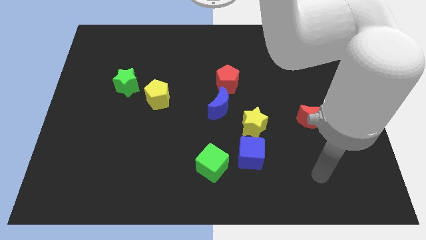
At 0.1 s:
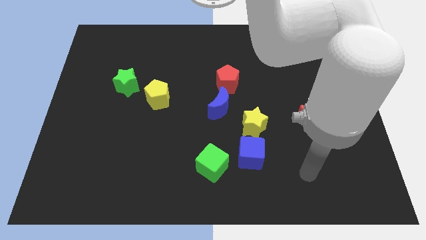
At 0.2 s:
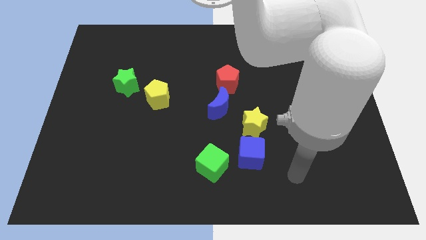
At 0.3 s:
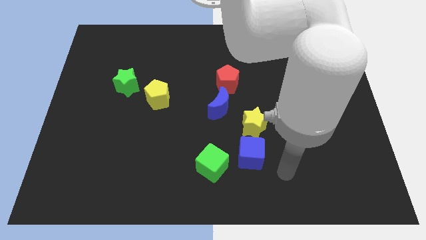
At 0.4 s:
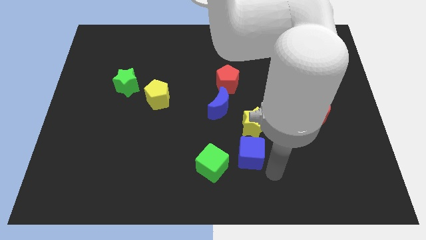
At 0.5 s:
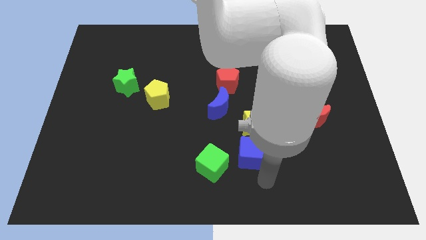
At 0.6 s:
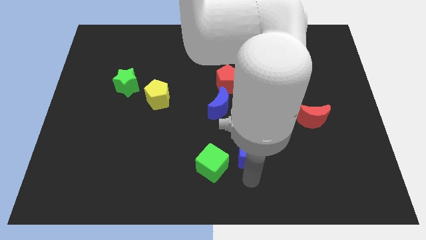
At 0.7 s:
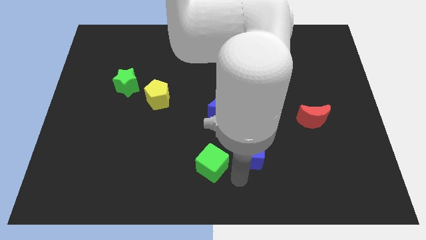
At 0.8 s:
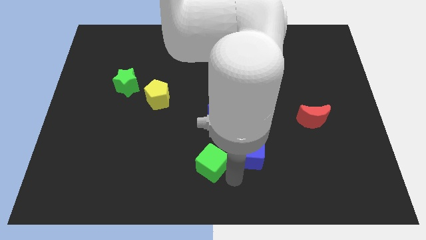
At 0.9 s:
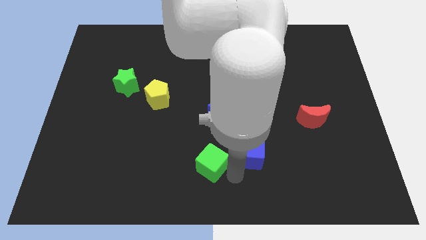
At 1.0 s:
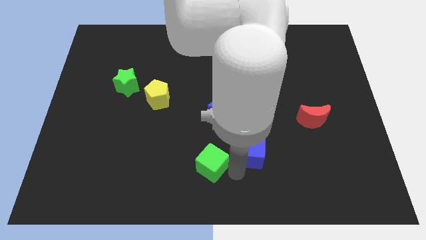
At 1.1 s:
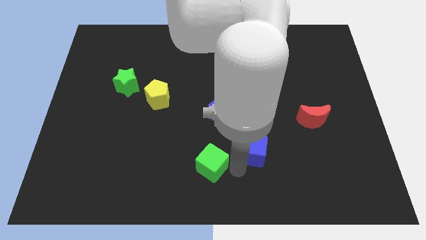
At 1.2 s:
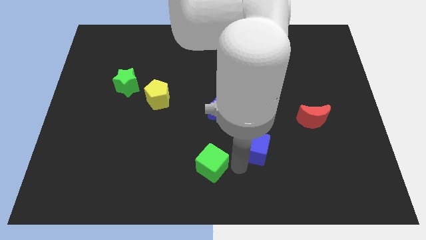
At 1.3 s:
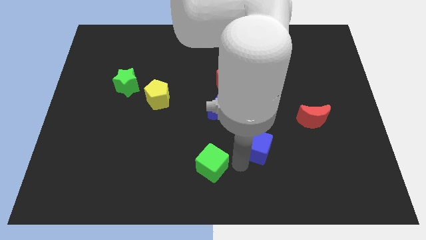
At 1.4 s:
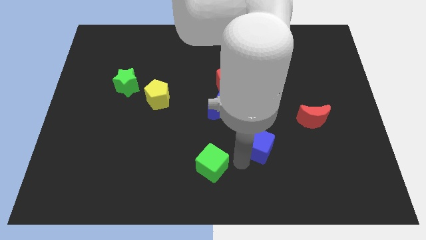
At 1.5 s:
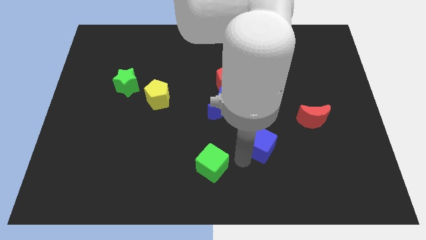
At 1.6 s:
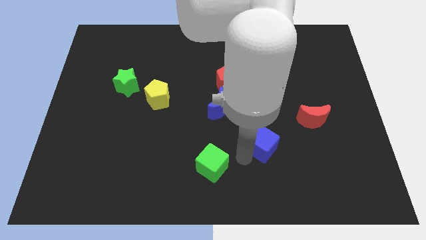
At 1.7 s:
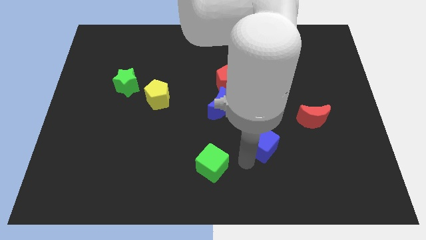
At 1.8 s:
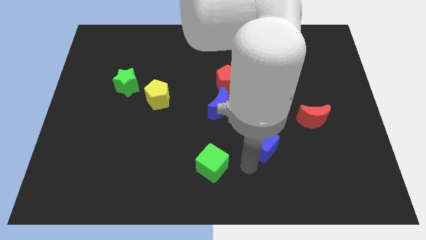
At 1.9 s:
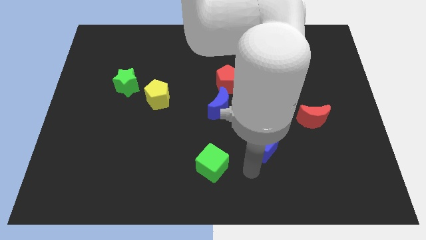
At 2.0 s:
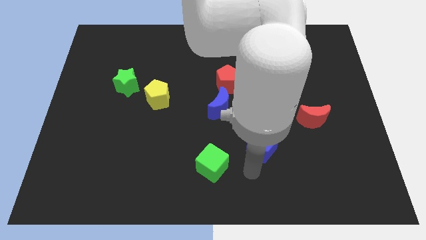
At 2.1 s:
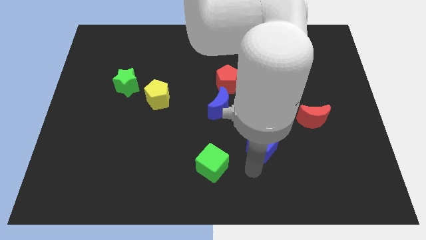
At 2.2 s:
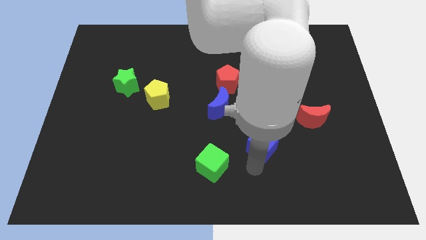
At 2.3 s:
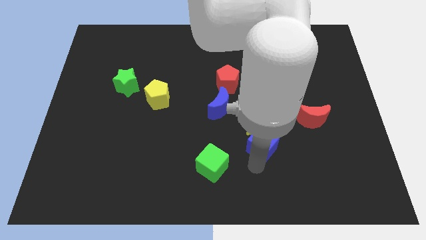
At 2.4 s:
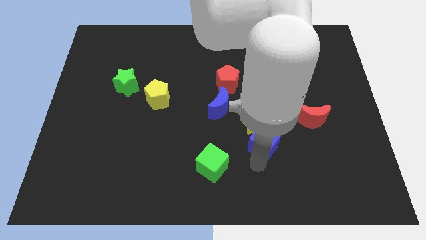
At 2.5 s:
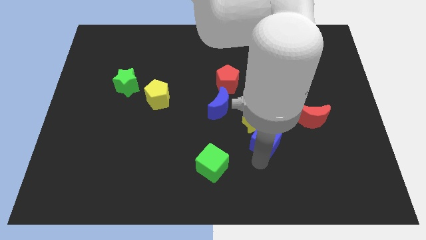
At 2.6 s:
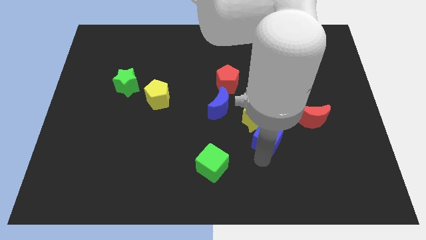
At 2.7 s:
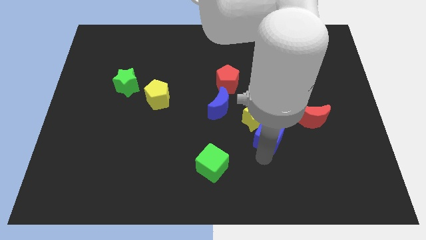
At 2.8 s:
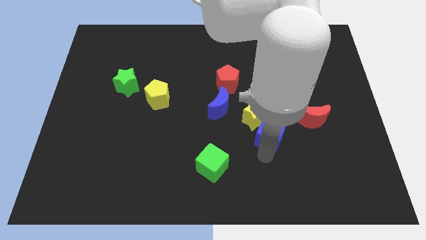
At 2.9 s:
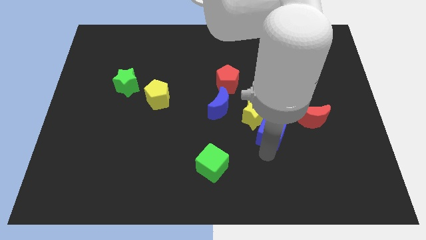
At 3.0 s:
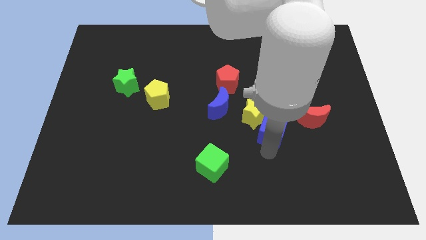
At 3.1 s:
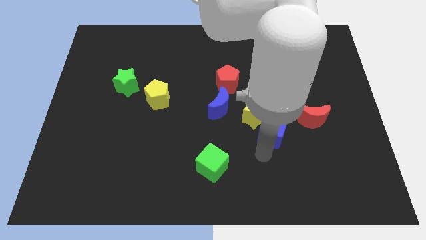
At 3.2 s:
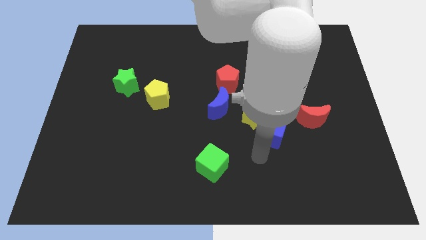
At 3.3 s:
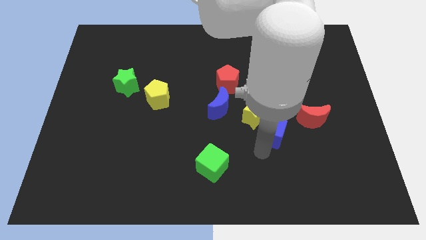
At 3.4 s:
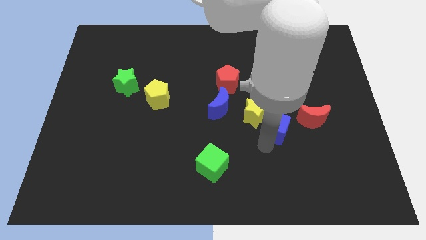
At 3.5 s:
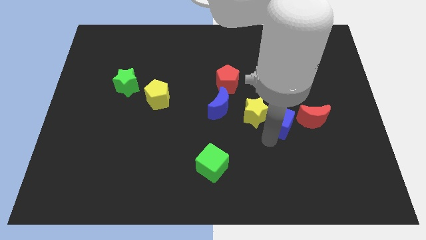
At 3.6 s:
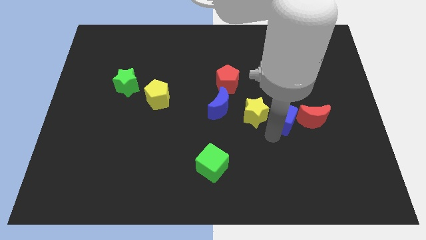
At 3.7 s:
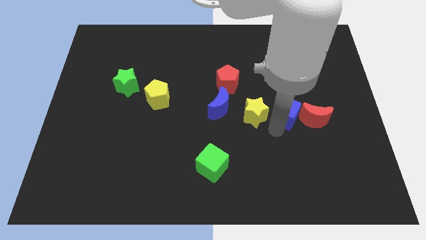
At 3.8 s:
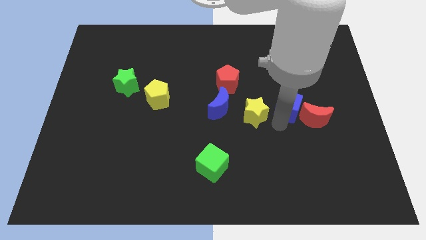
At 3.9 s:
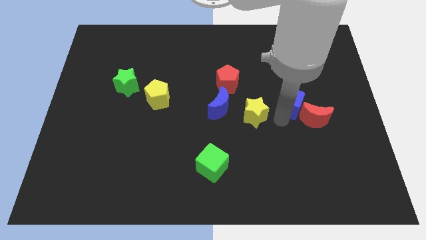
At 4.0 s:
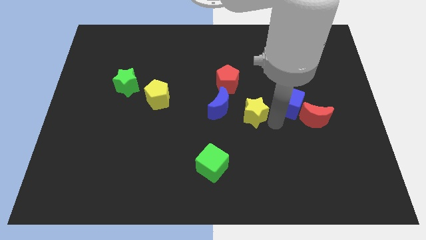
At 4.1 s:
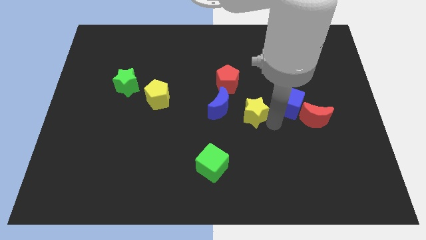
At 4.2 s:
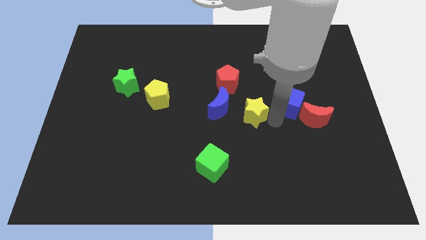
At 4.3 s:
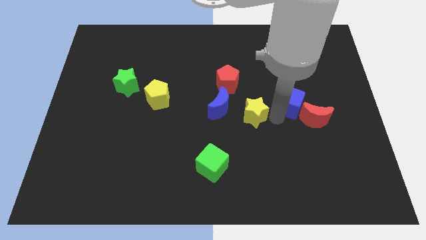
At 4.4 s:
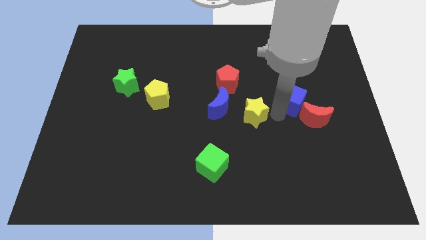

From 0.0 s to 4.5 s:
move the blue cube above the red moon

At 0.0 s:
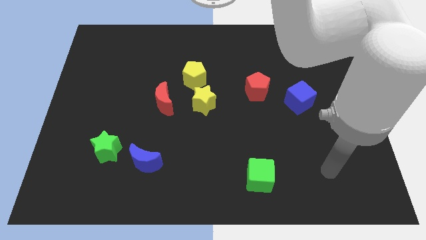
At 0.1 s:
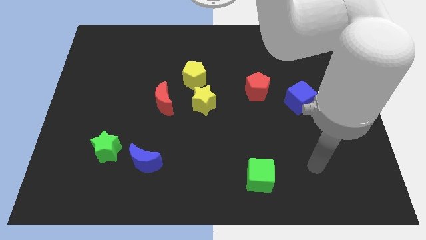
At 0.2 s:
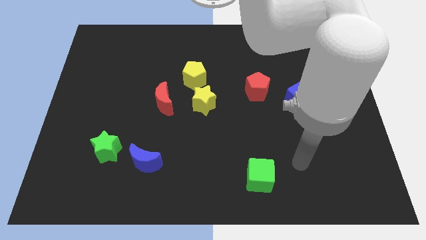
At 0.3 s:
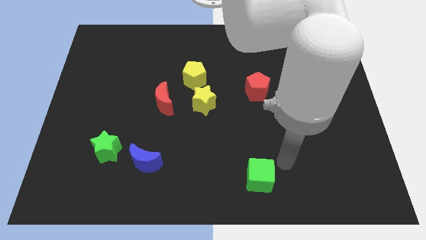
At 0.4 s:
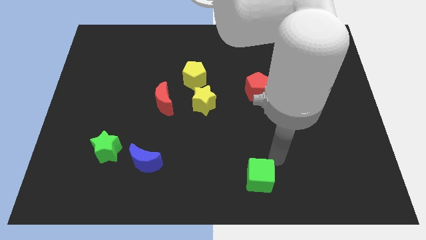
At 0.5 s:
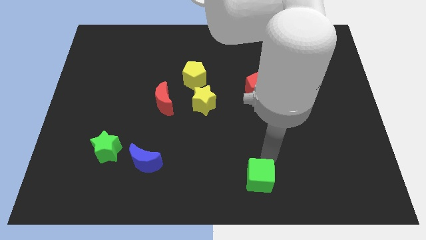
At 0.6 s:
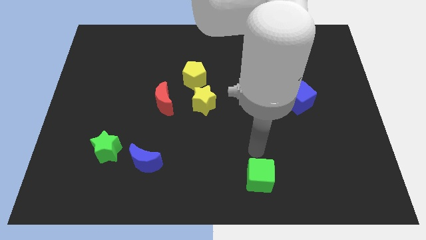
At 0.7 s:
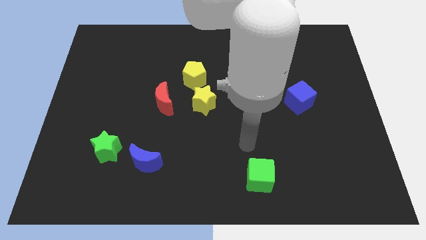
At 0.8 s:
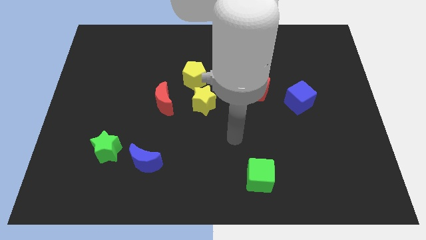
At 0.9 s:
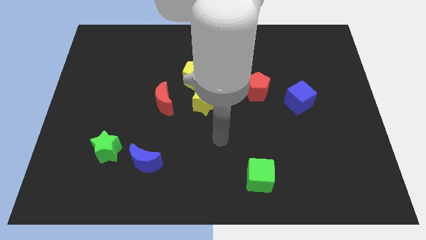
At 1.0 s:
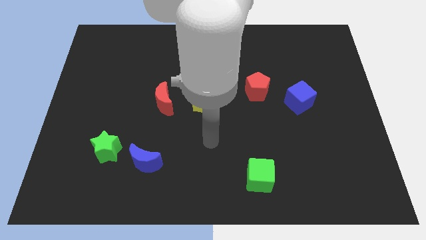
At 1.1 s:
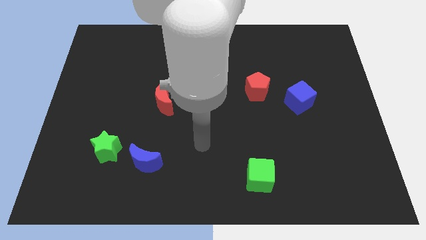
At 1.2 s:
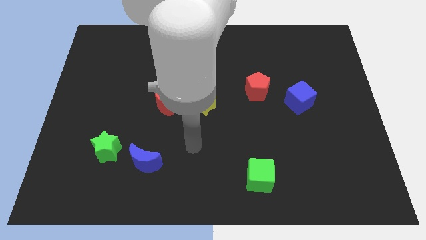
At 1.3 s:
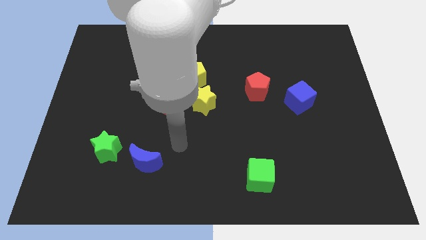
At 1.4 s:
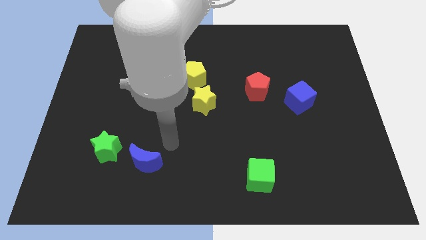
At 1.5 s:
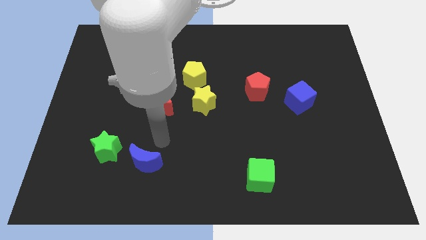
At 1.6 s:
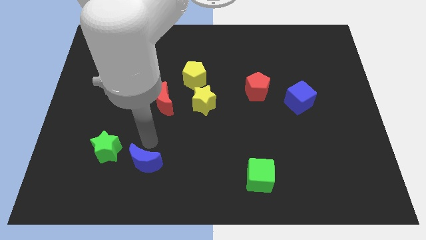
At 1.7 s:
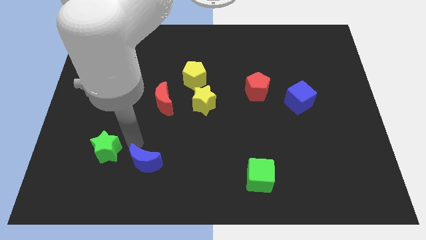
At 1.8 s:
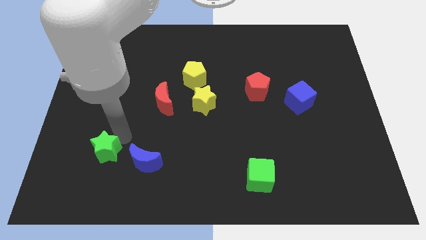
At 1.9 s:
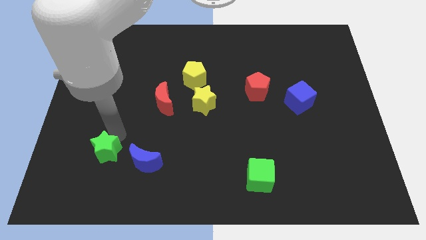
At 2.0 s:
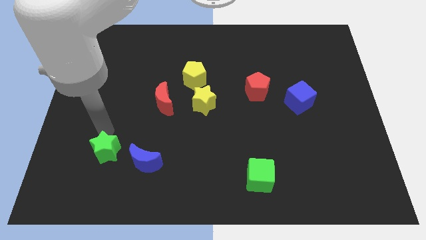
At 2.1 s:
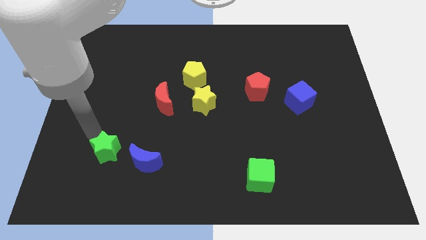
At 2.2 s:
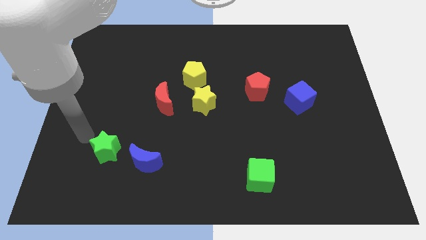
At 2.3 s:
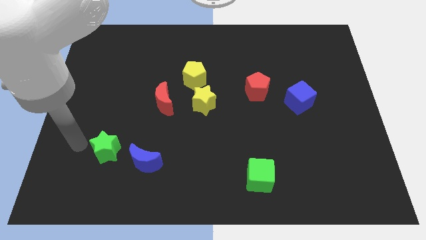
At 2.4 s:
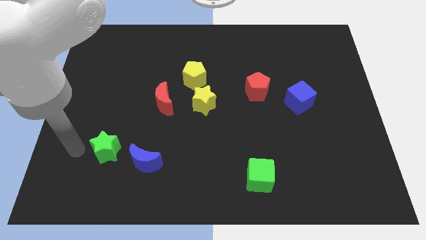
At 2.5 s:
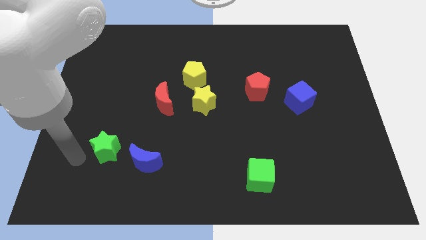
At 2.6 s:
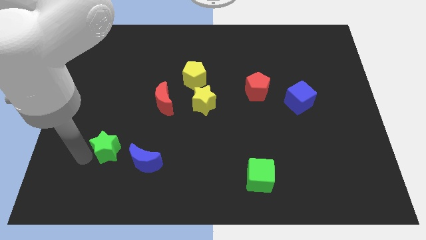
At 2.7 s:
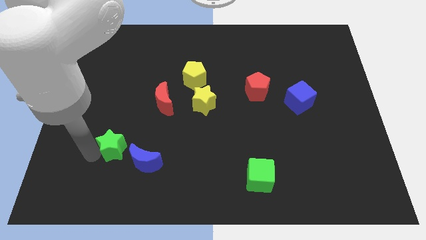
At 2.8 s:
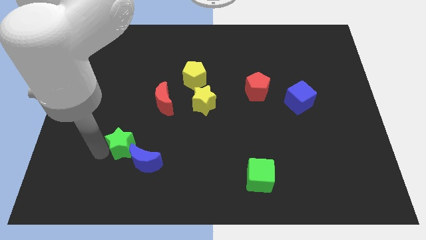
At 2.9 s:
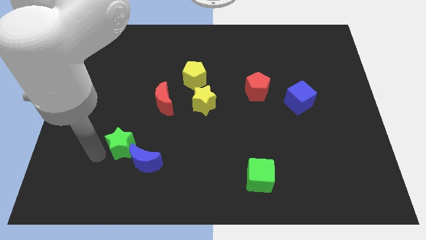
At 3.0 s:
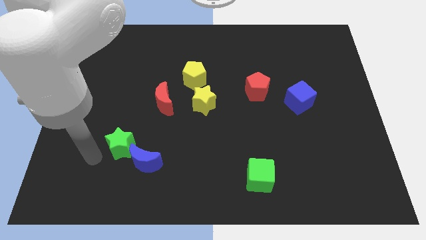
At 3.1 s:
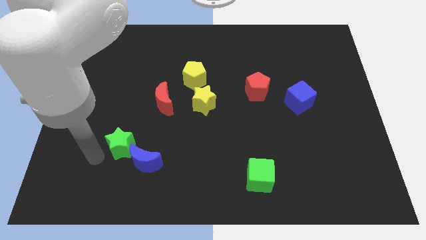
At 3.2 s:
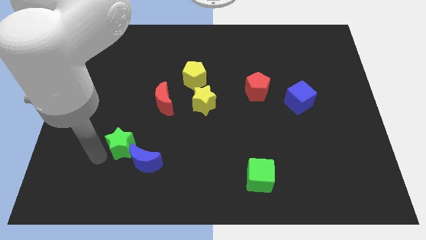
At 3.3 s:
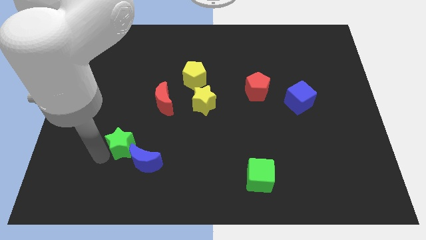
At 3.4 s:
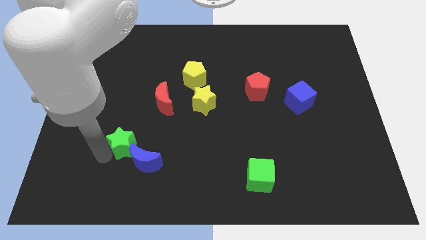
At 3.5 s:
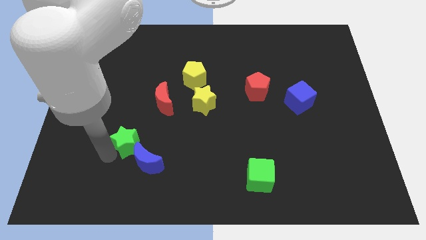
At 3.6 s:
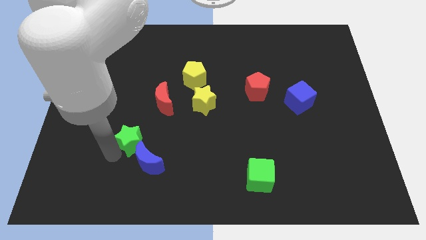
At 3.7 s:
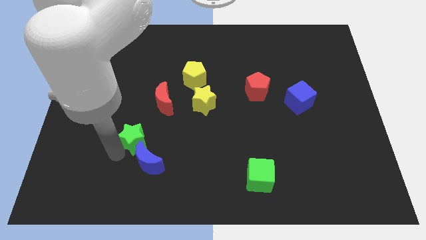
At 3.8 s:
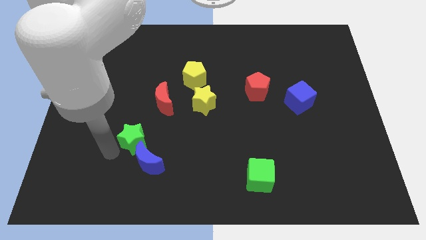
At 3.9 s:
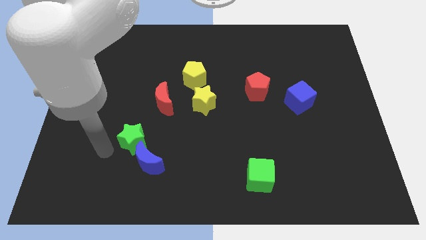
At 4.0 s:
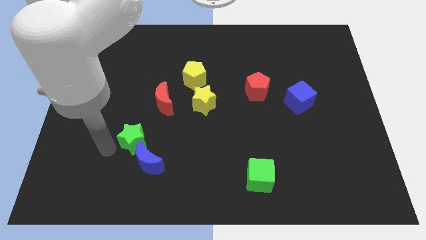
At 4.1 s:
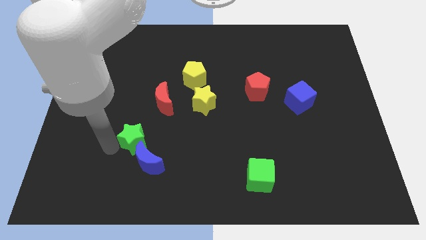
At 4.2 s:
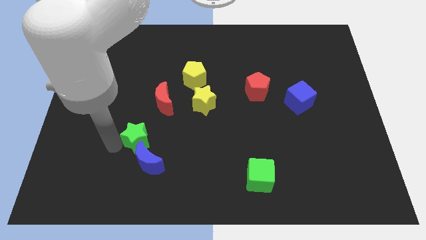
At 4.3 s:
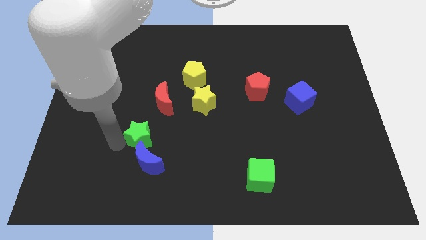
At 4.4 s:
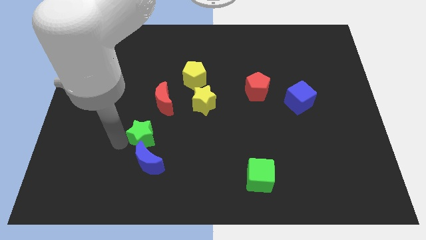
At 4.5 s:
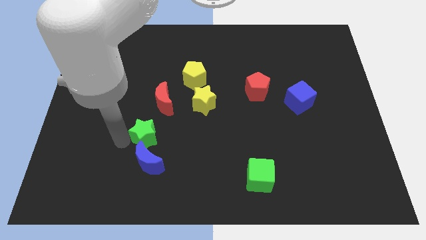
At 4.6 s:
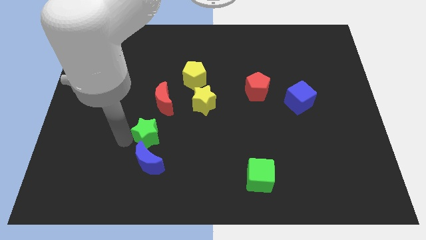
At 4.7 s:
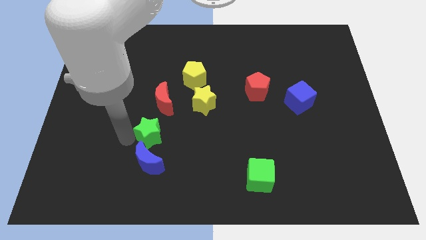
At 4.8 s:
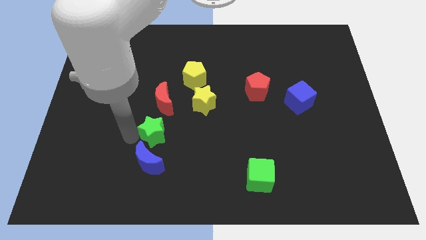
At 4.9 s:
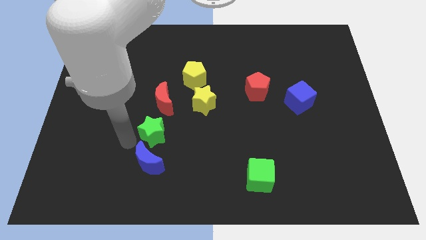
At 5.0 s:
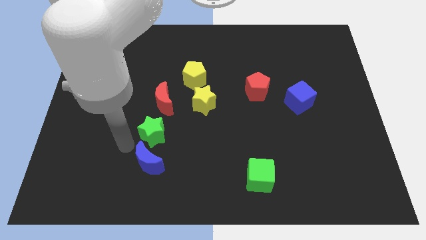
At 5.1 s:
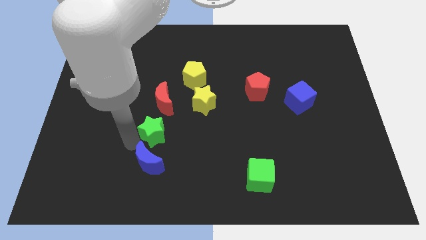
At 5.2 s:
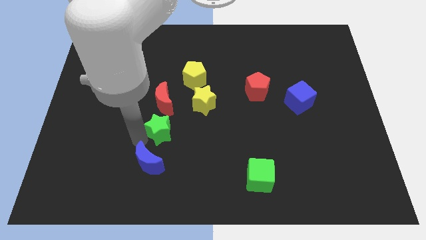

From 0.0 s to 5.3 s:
push the green star diagonally down and to the left of the yellow star
